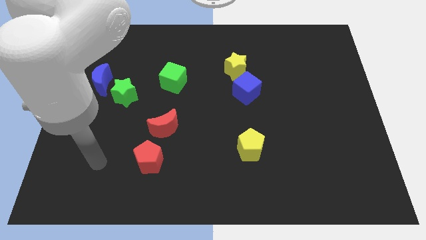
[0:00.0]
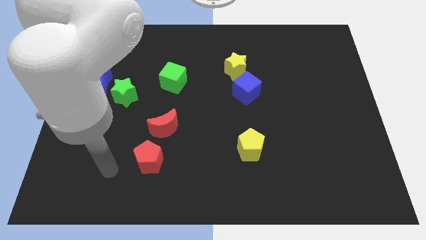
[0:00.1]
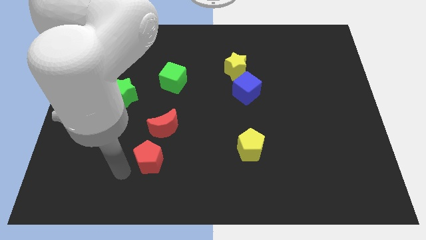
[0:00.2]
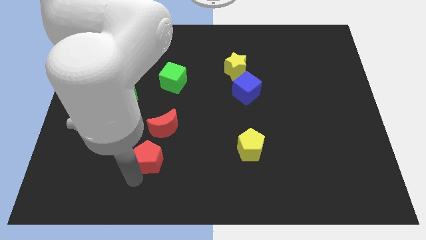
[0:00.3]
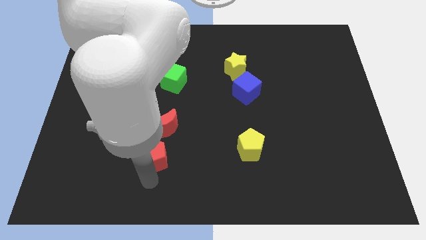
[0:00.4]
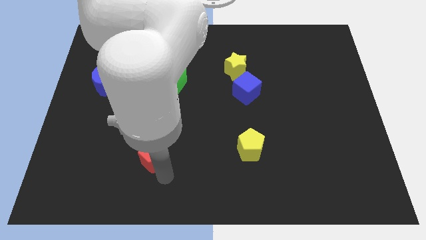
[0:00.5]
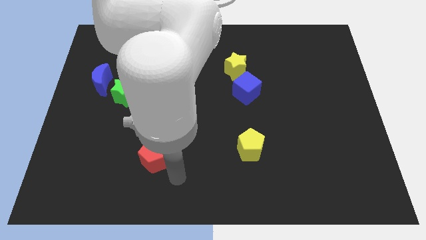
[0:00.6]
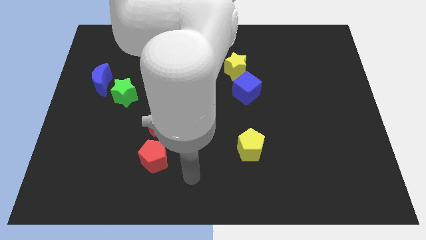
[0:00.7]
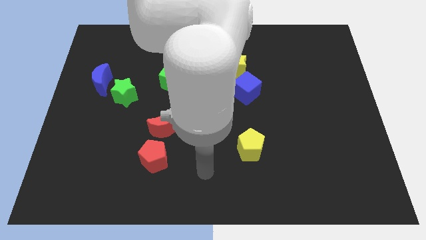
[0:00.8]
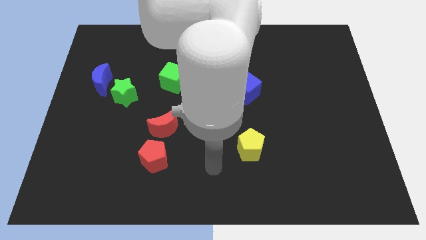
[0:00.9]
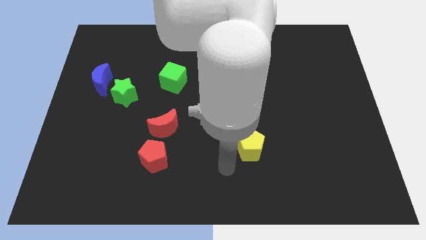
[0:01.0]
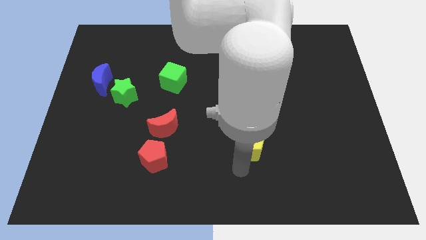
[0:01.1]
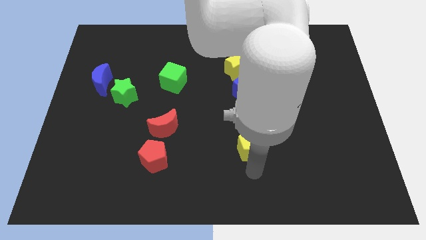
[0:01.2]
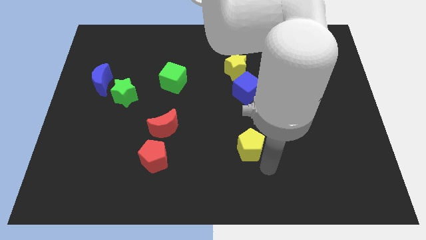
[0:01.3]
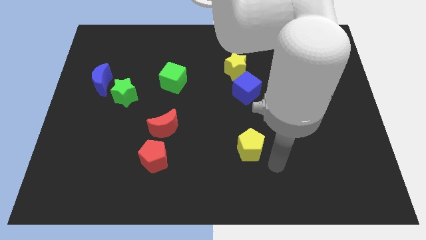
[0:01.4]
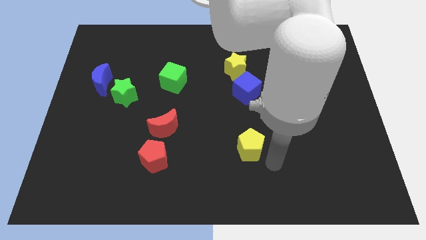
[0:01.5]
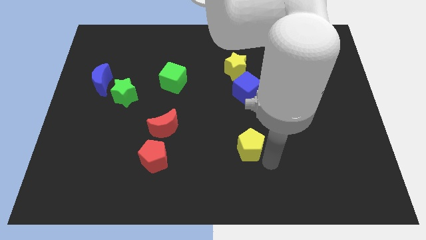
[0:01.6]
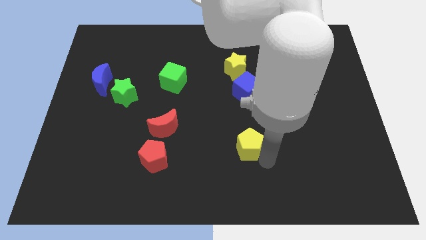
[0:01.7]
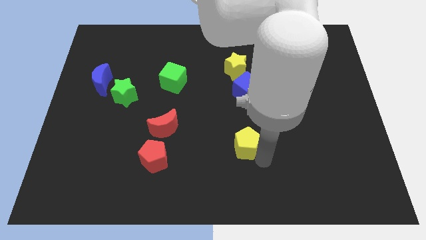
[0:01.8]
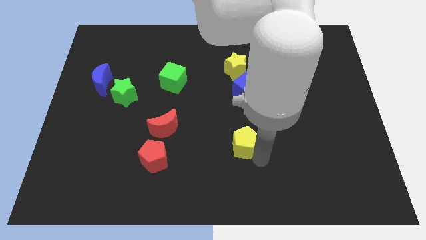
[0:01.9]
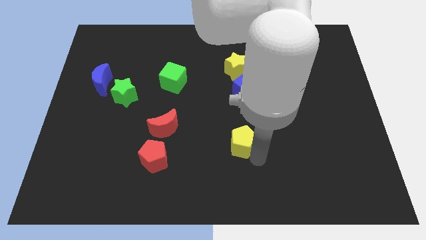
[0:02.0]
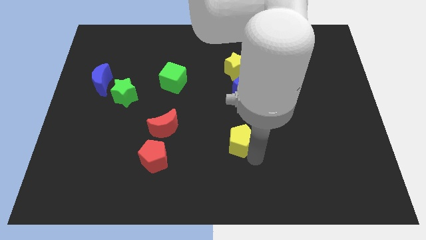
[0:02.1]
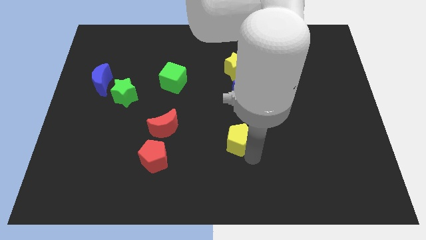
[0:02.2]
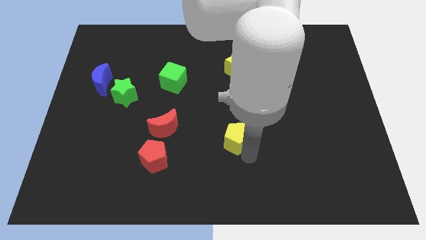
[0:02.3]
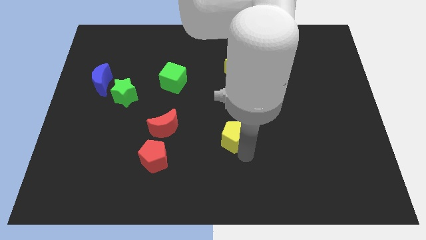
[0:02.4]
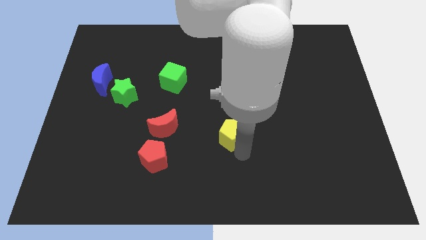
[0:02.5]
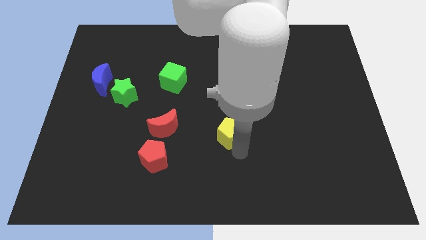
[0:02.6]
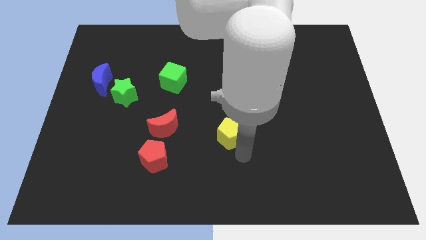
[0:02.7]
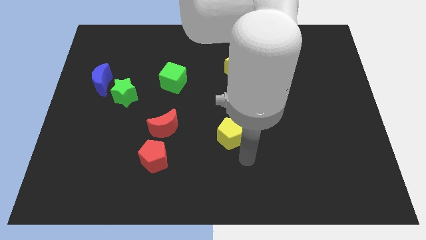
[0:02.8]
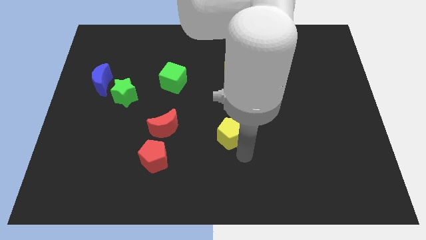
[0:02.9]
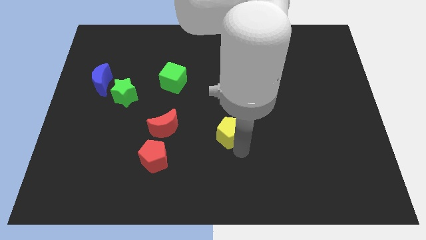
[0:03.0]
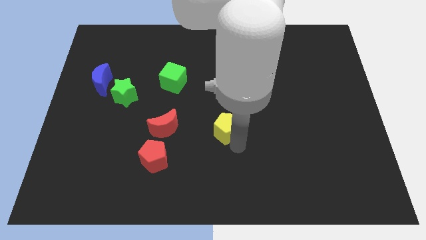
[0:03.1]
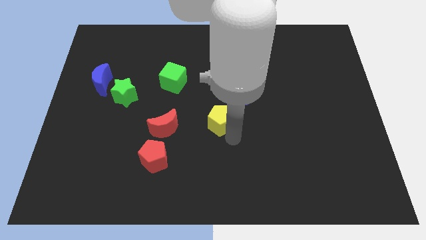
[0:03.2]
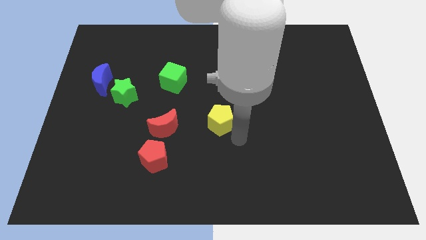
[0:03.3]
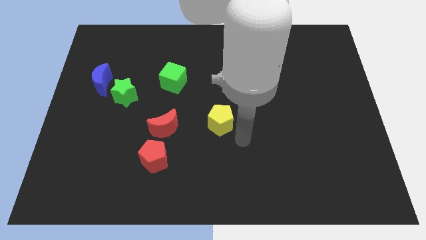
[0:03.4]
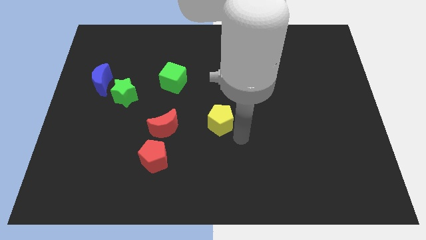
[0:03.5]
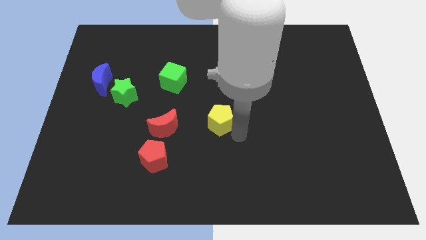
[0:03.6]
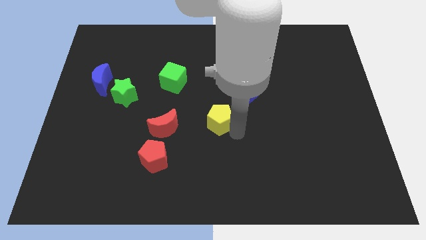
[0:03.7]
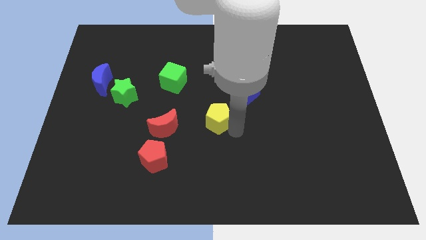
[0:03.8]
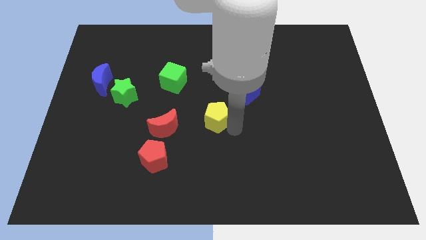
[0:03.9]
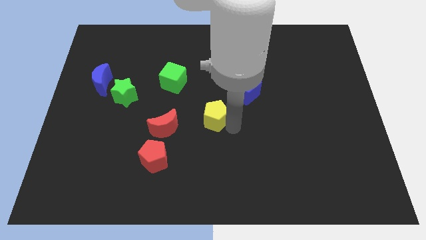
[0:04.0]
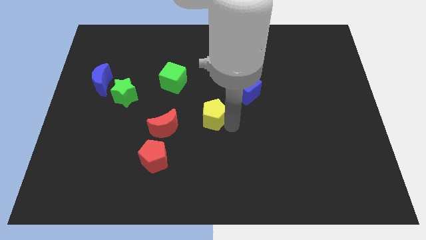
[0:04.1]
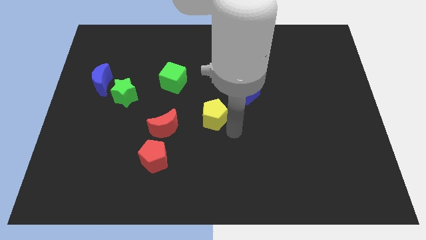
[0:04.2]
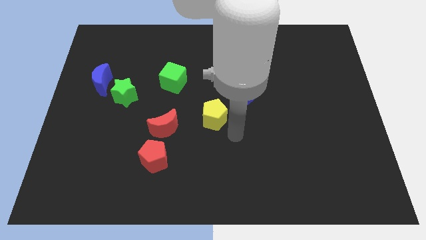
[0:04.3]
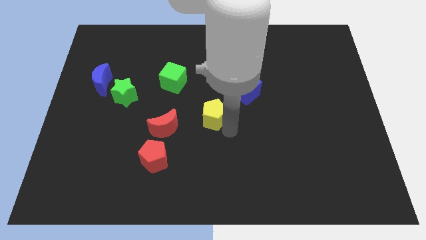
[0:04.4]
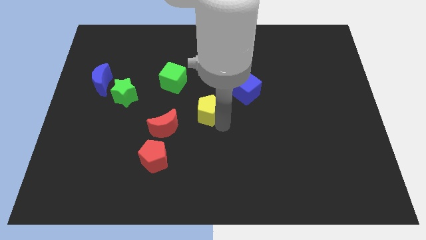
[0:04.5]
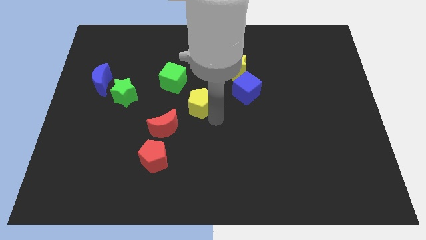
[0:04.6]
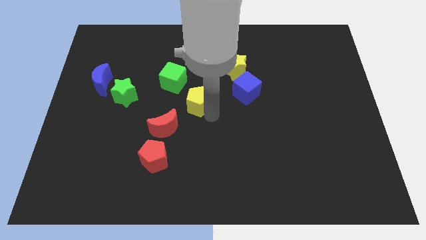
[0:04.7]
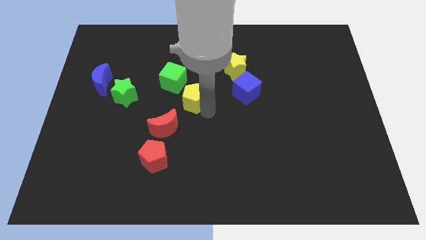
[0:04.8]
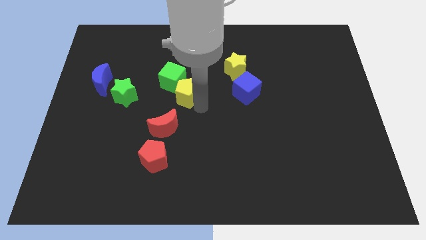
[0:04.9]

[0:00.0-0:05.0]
slide the yellow pentagon close to the green cube

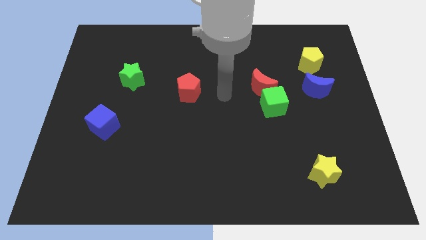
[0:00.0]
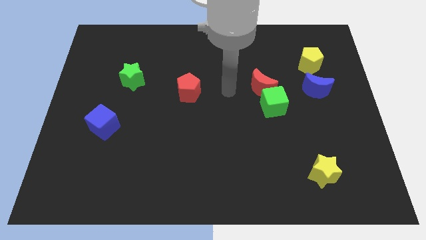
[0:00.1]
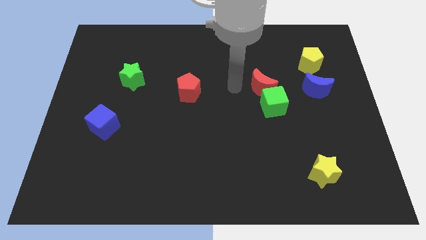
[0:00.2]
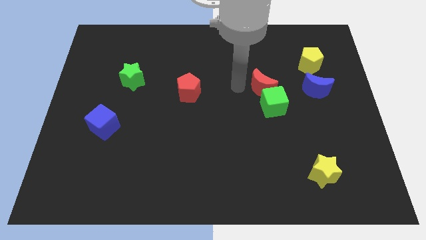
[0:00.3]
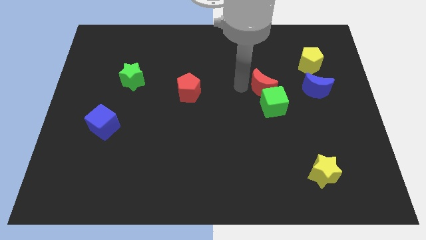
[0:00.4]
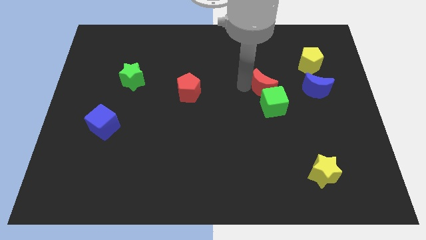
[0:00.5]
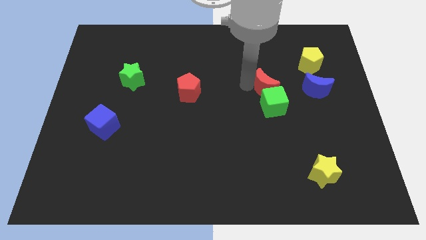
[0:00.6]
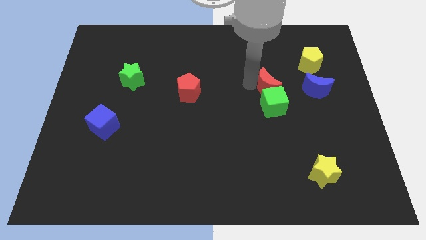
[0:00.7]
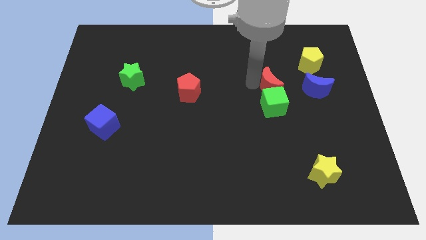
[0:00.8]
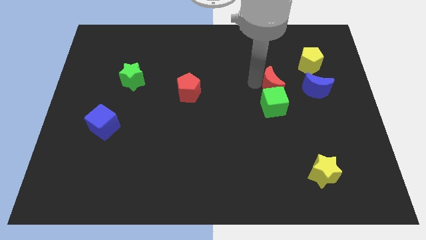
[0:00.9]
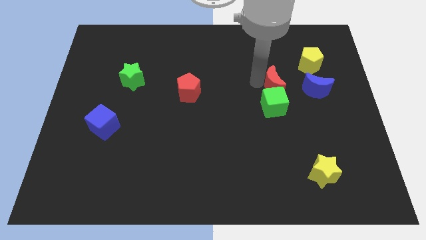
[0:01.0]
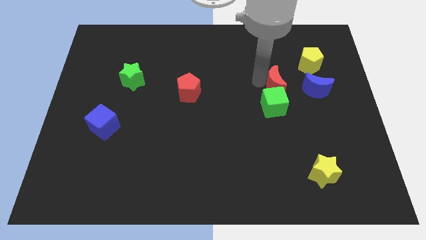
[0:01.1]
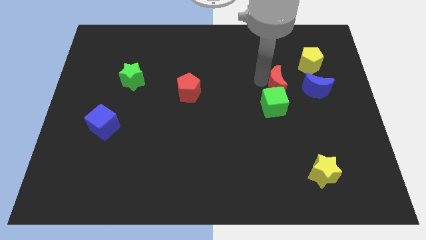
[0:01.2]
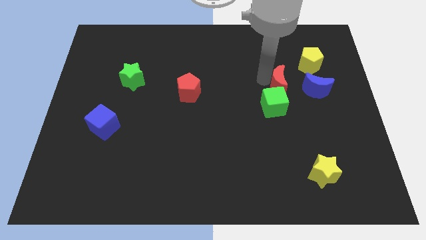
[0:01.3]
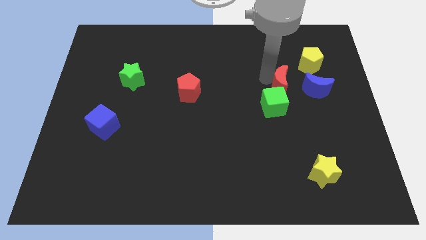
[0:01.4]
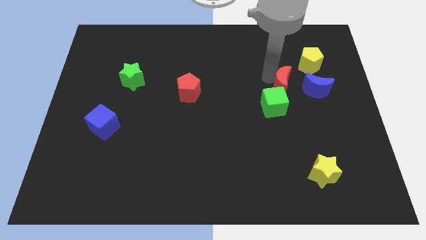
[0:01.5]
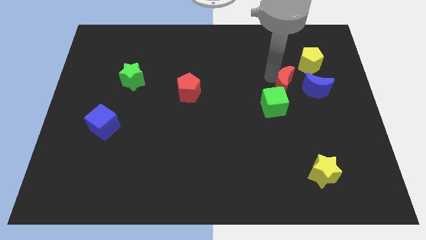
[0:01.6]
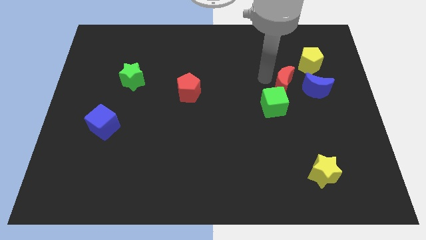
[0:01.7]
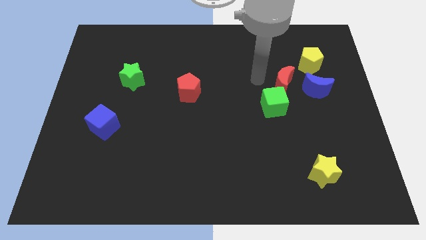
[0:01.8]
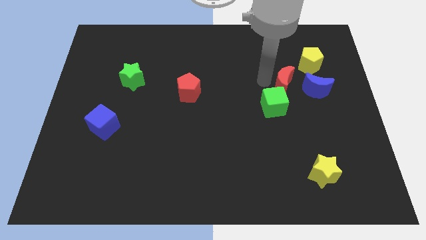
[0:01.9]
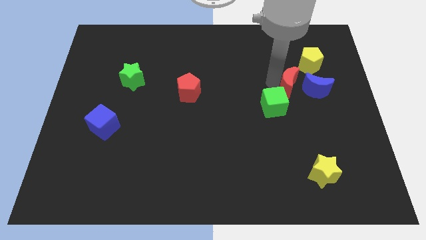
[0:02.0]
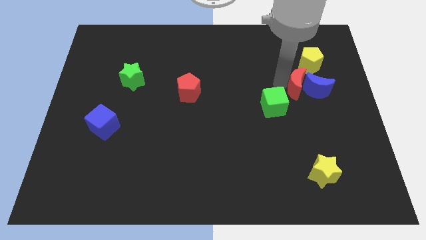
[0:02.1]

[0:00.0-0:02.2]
put the red moon close to the blue moon
